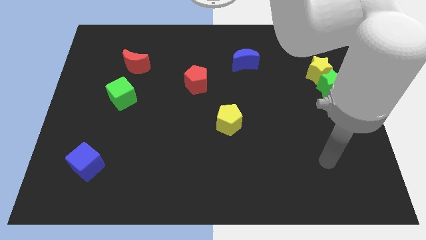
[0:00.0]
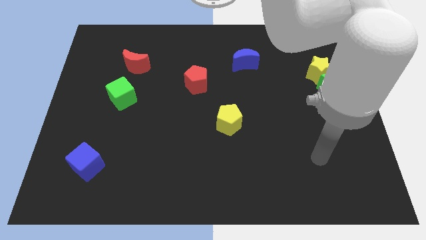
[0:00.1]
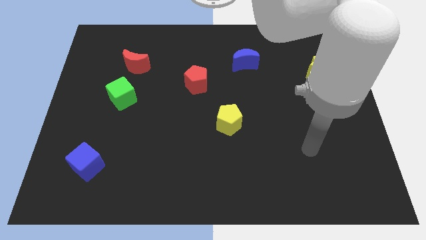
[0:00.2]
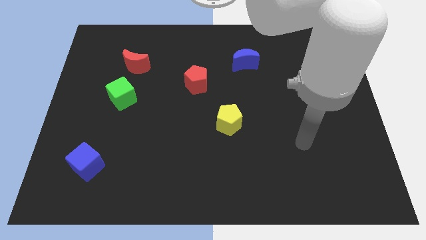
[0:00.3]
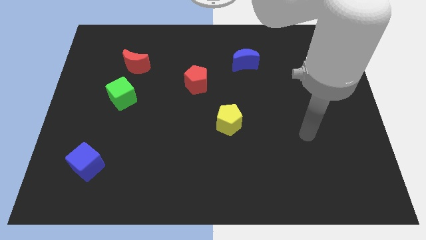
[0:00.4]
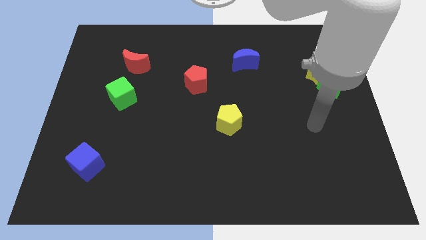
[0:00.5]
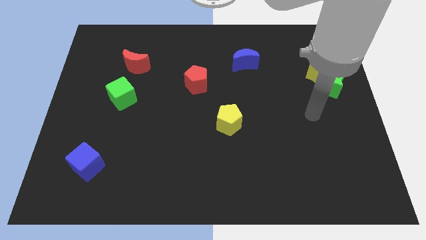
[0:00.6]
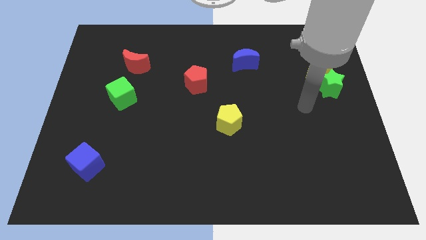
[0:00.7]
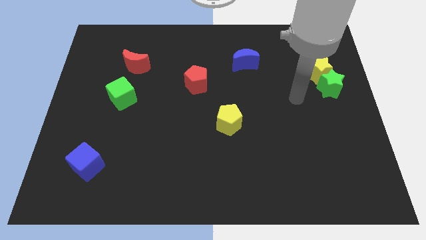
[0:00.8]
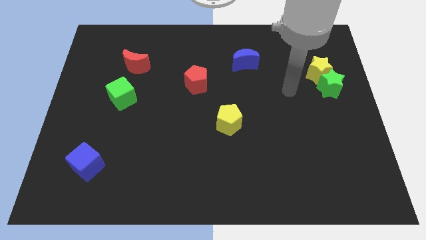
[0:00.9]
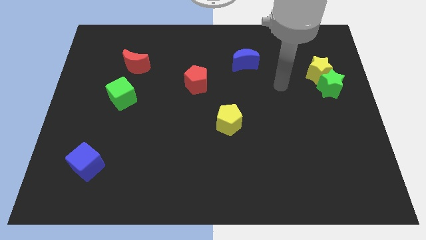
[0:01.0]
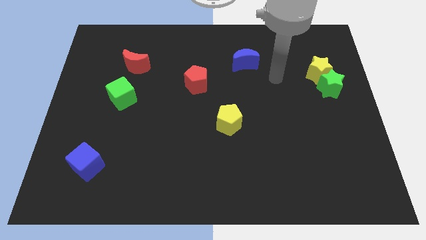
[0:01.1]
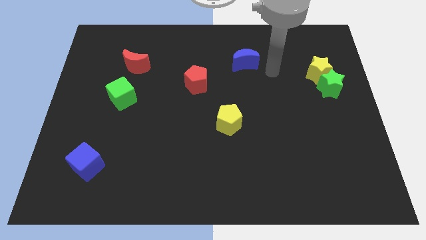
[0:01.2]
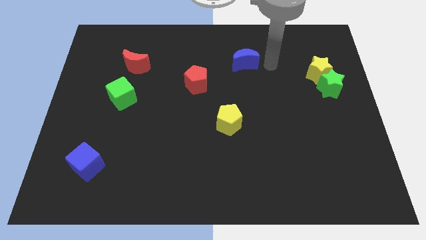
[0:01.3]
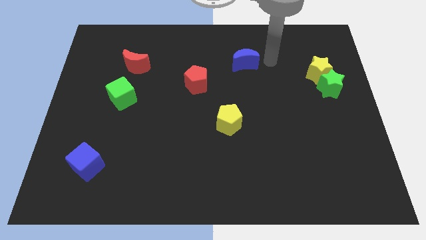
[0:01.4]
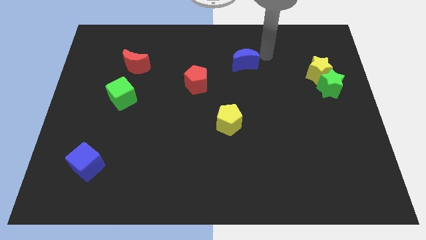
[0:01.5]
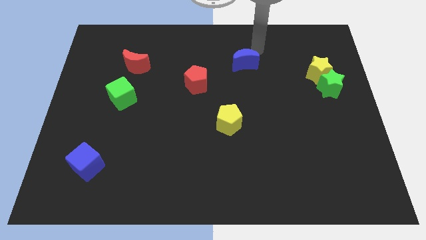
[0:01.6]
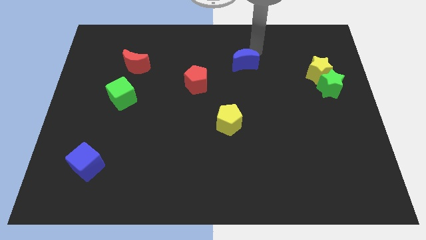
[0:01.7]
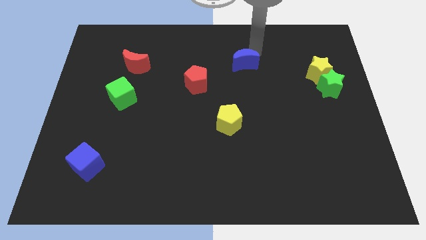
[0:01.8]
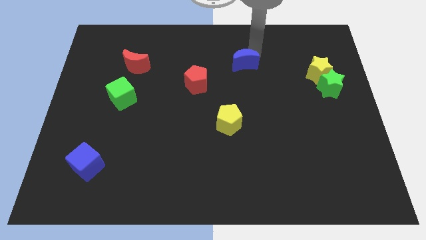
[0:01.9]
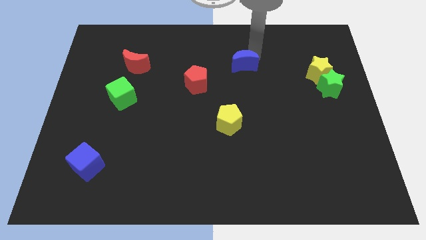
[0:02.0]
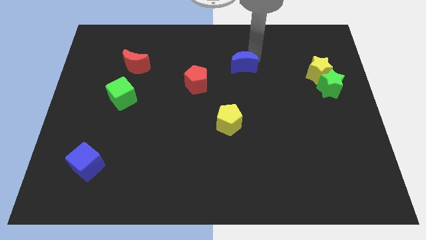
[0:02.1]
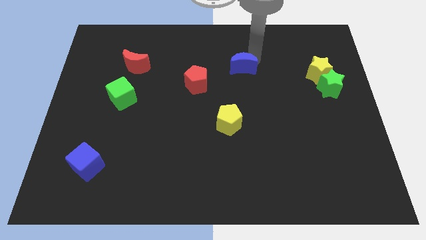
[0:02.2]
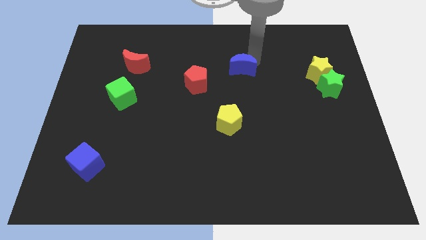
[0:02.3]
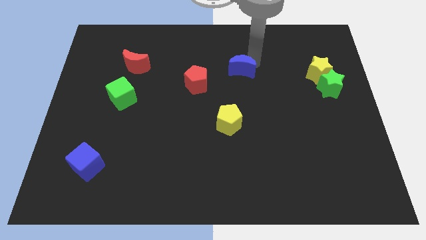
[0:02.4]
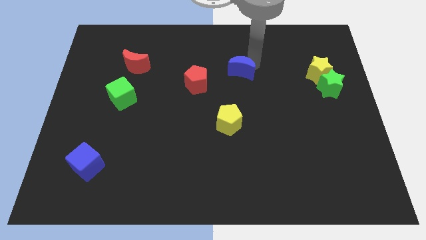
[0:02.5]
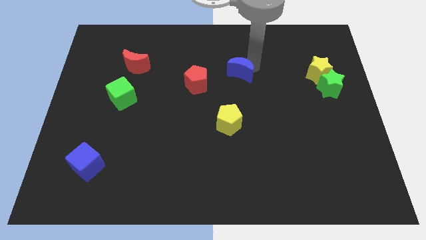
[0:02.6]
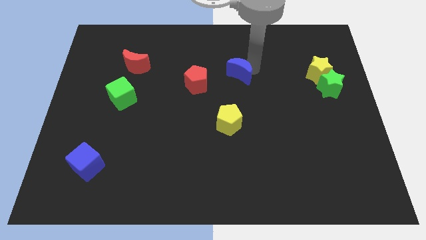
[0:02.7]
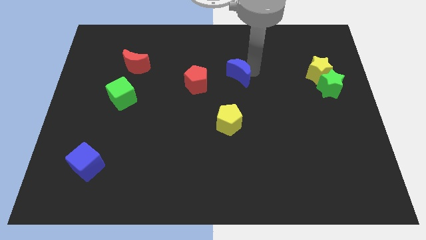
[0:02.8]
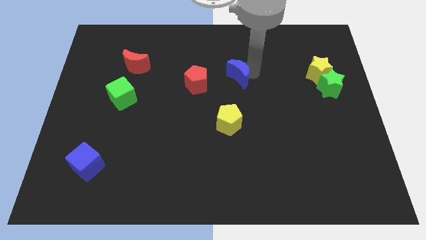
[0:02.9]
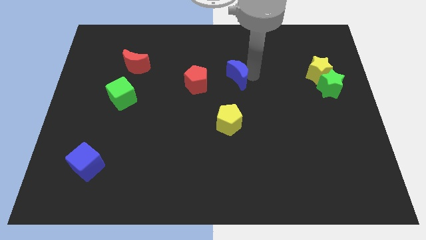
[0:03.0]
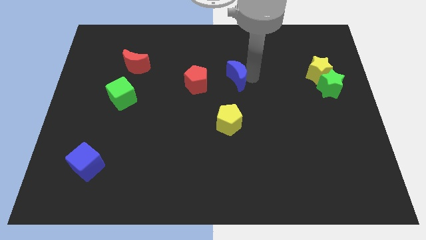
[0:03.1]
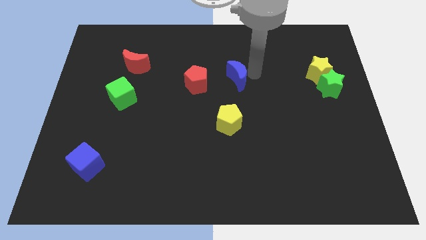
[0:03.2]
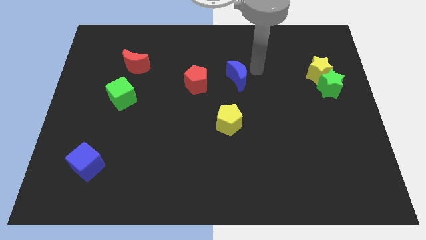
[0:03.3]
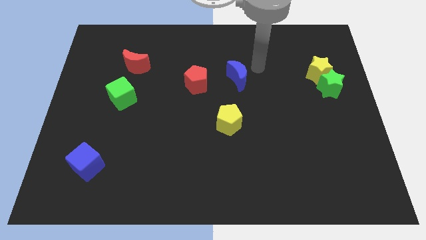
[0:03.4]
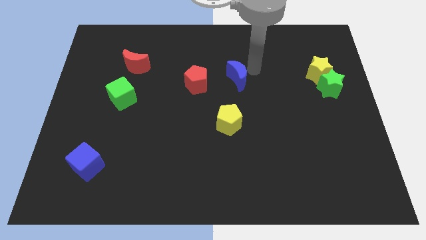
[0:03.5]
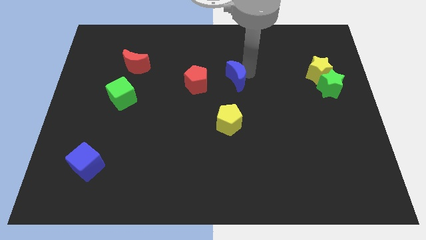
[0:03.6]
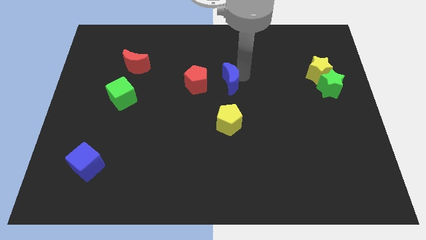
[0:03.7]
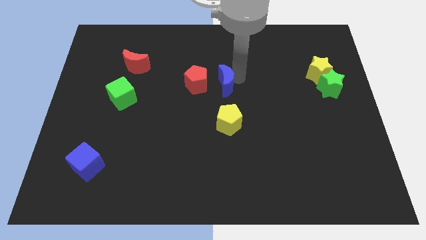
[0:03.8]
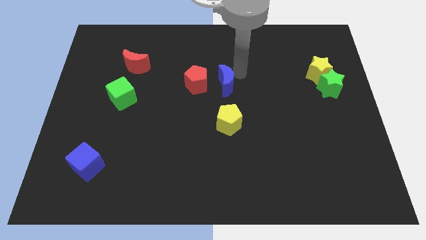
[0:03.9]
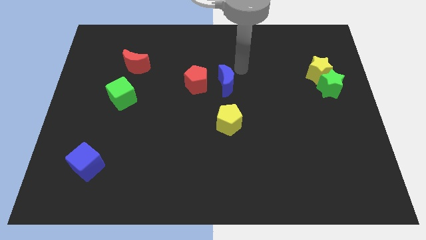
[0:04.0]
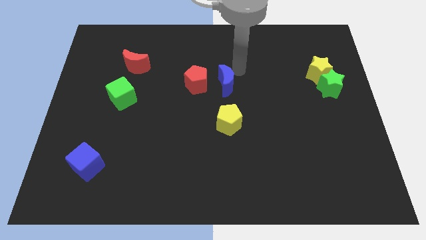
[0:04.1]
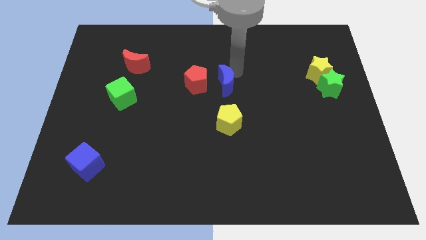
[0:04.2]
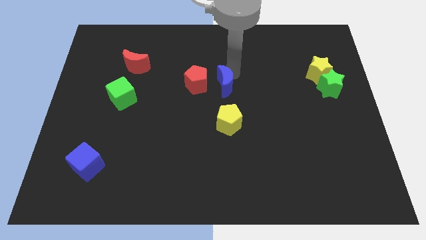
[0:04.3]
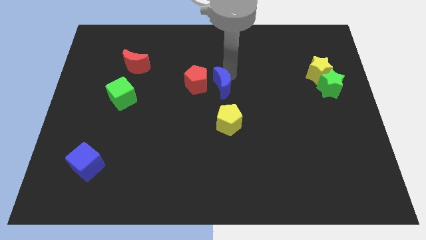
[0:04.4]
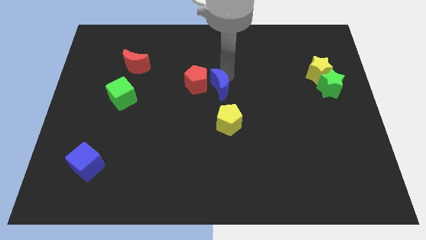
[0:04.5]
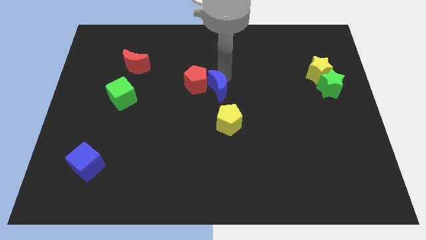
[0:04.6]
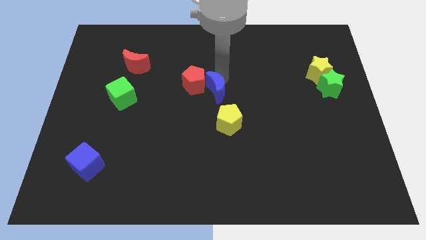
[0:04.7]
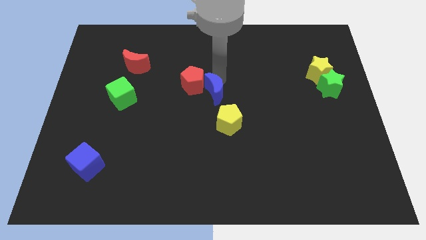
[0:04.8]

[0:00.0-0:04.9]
put the blue moon to the top left of the yellow pentagon

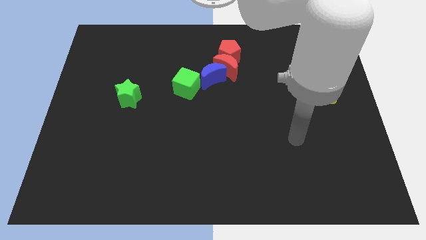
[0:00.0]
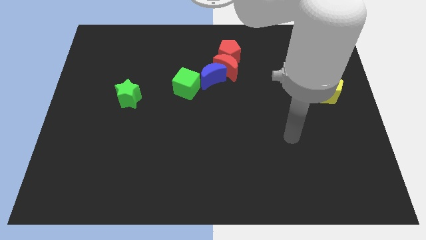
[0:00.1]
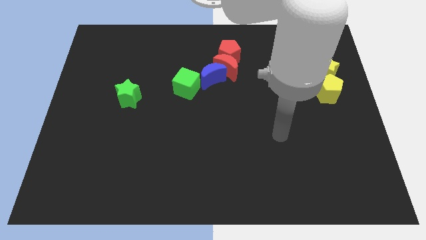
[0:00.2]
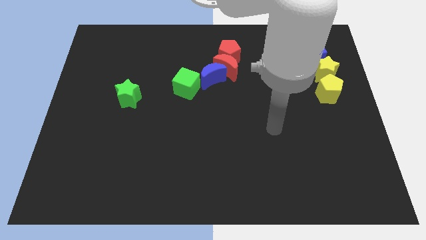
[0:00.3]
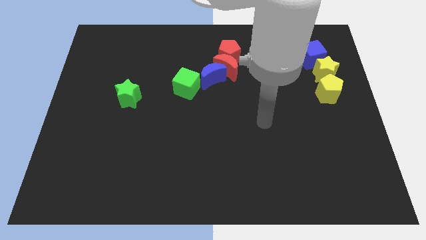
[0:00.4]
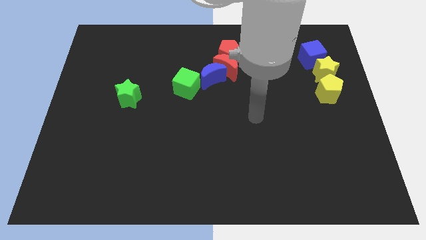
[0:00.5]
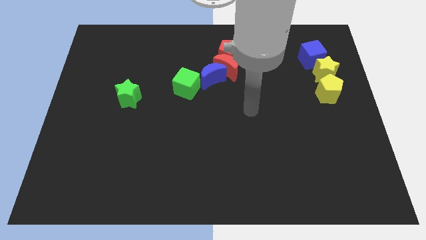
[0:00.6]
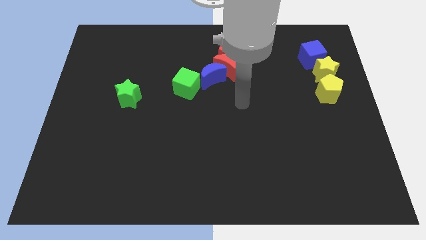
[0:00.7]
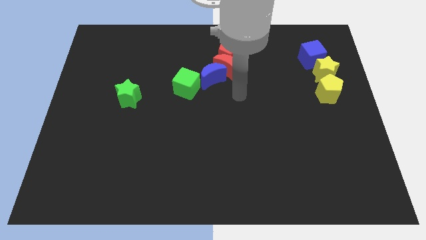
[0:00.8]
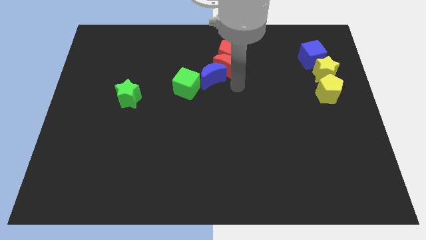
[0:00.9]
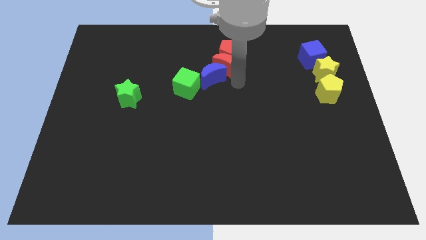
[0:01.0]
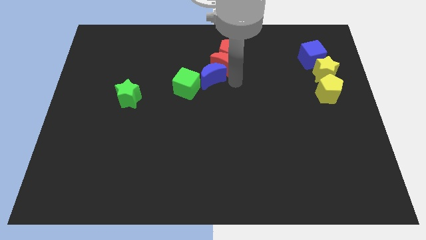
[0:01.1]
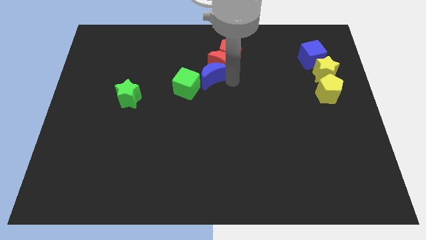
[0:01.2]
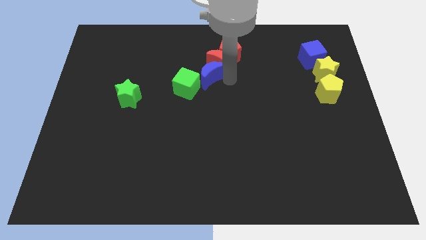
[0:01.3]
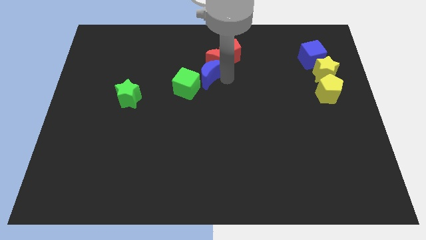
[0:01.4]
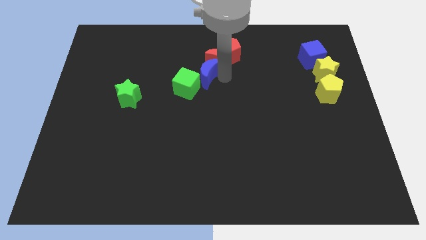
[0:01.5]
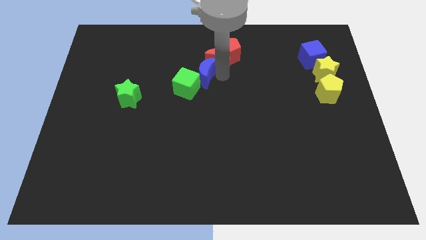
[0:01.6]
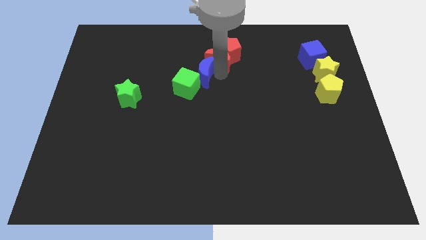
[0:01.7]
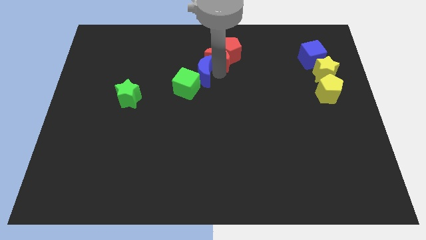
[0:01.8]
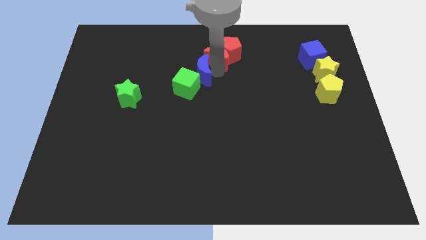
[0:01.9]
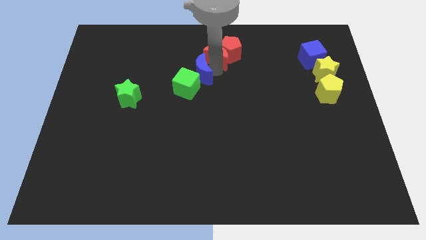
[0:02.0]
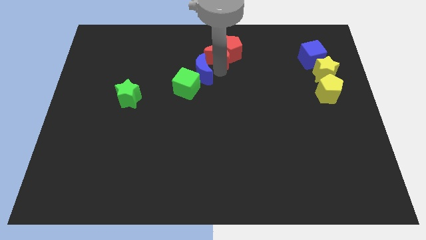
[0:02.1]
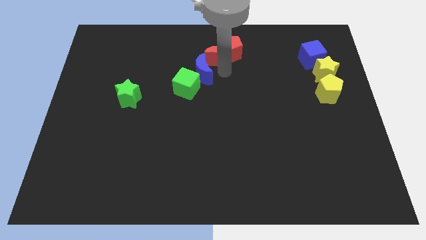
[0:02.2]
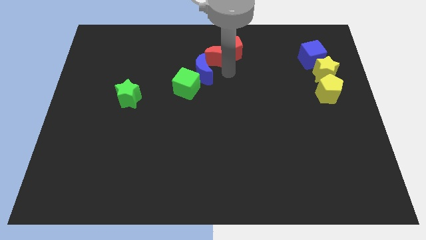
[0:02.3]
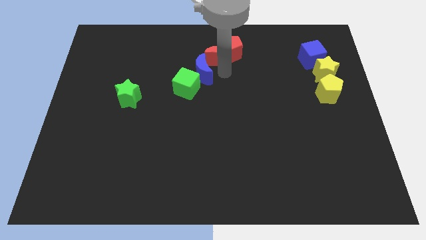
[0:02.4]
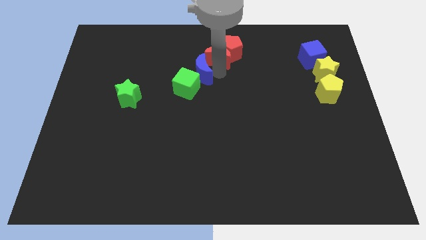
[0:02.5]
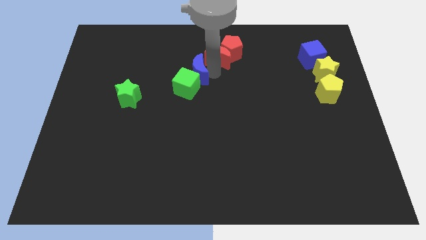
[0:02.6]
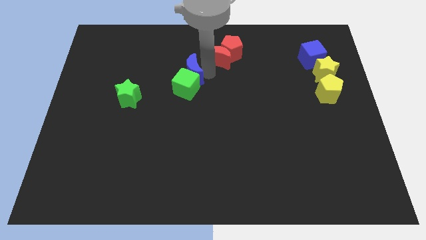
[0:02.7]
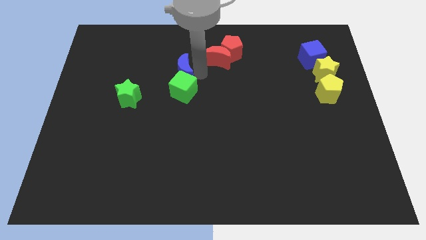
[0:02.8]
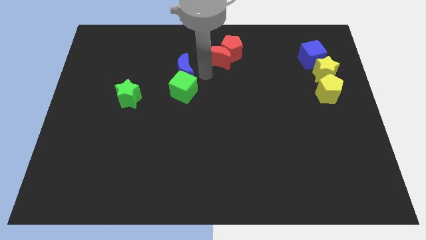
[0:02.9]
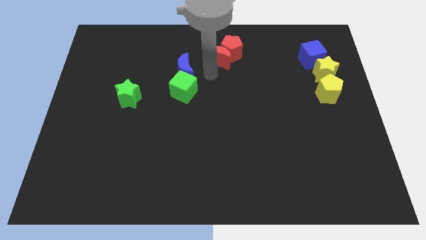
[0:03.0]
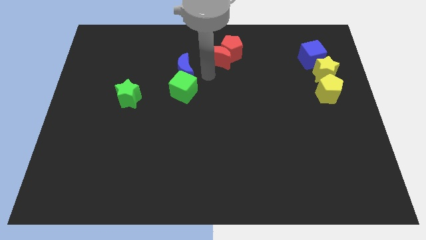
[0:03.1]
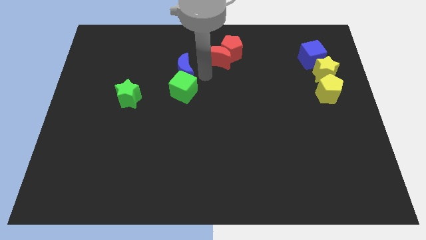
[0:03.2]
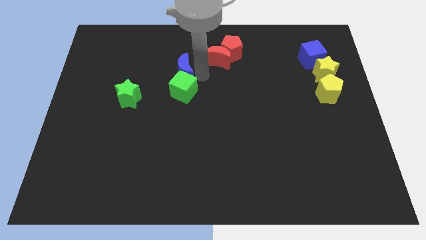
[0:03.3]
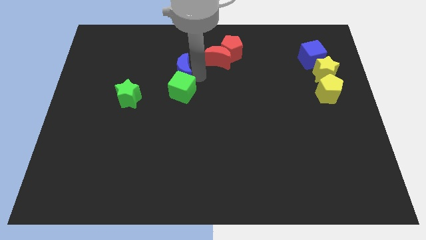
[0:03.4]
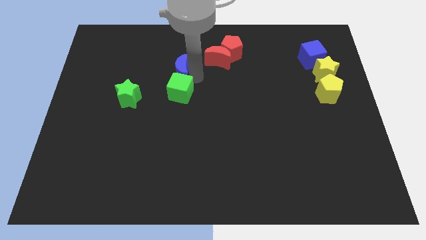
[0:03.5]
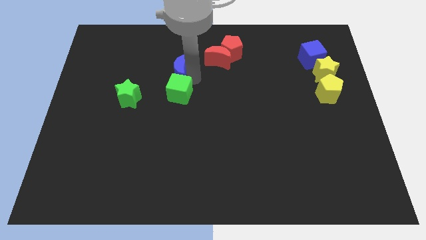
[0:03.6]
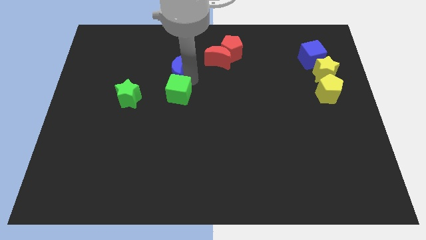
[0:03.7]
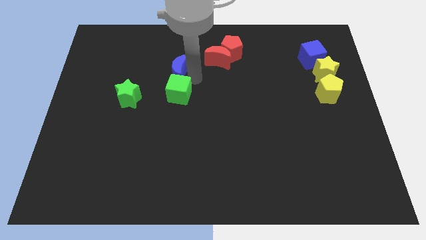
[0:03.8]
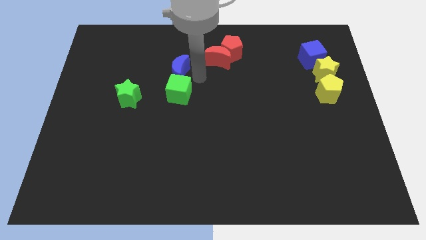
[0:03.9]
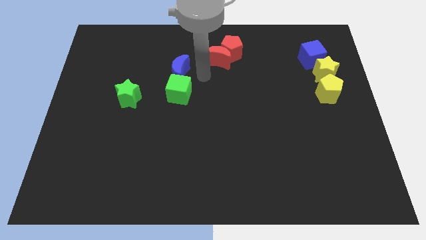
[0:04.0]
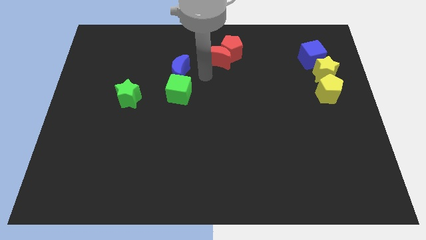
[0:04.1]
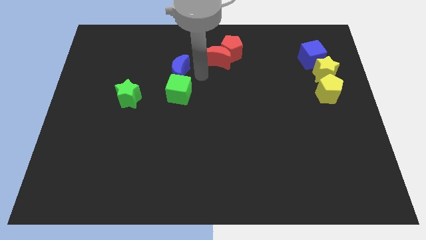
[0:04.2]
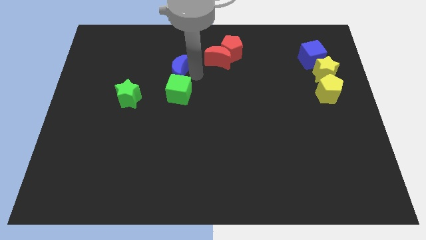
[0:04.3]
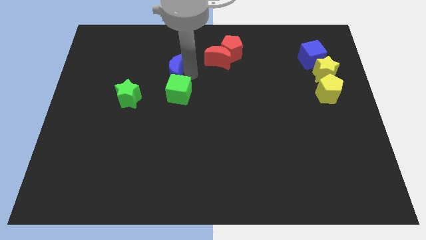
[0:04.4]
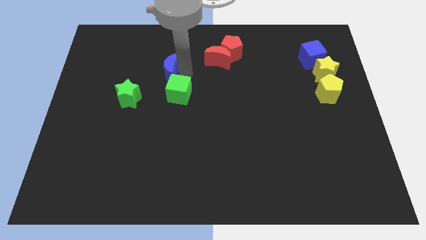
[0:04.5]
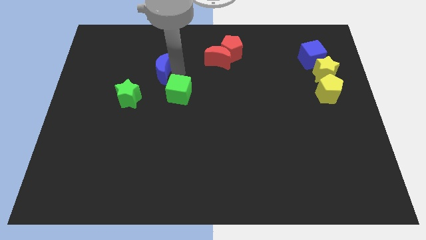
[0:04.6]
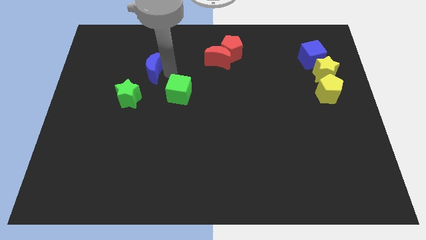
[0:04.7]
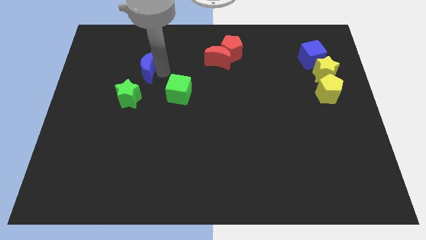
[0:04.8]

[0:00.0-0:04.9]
put the blue moon above the green star
